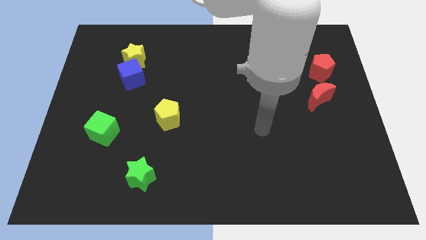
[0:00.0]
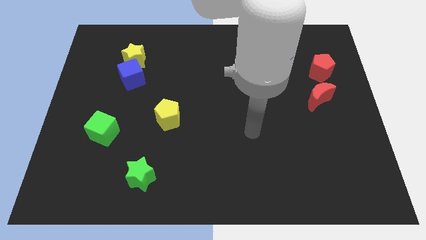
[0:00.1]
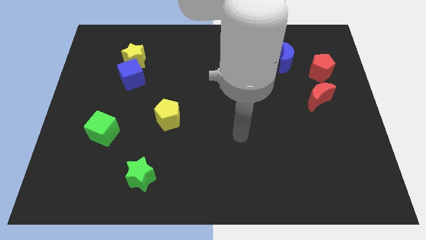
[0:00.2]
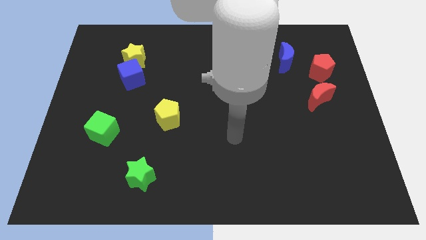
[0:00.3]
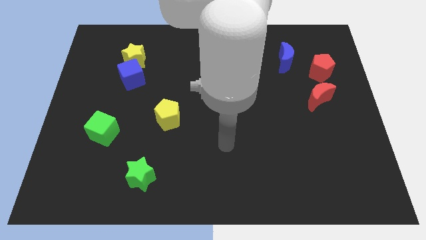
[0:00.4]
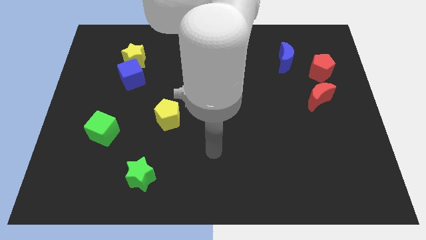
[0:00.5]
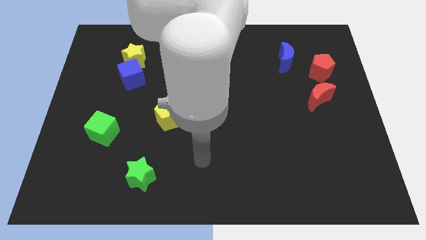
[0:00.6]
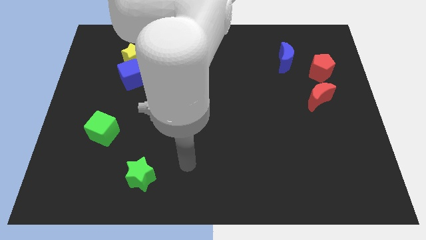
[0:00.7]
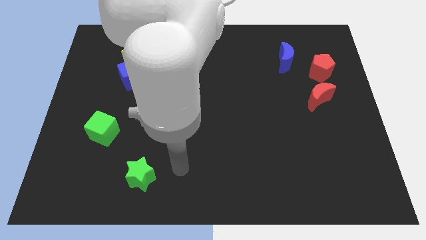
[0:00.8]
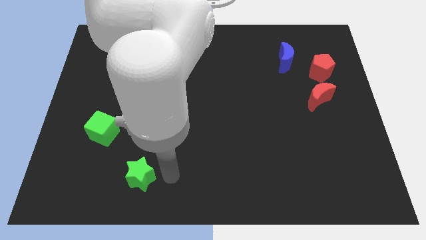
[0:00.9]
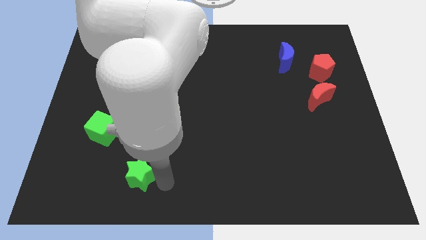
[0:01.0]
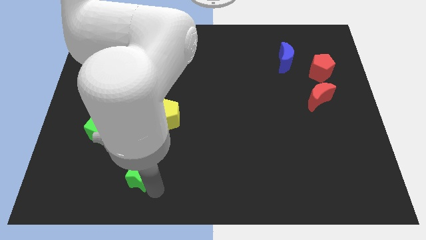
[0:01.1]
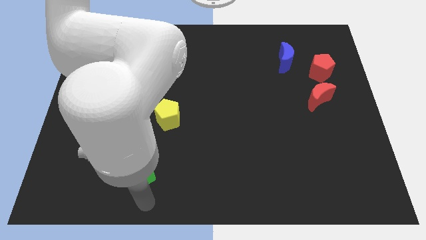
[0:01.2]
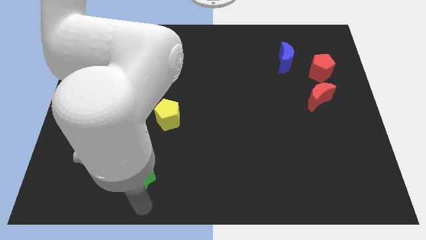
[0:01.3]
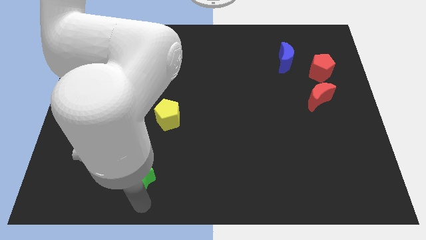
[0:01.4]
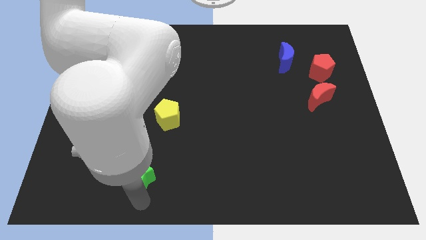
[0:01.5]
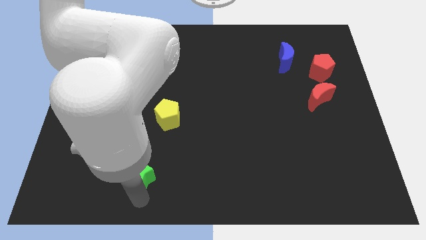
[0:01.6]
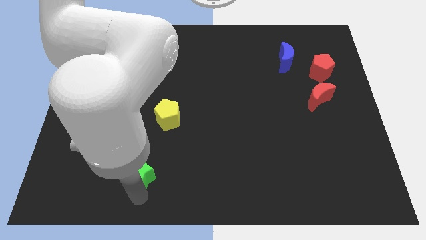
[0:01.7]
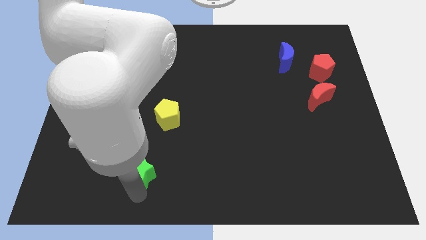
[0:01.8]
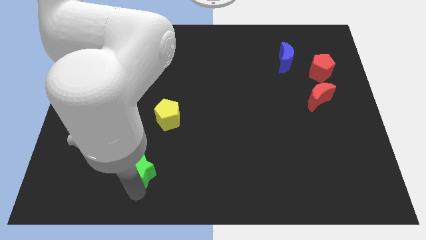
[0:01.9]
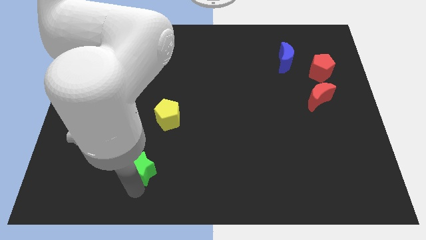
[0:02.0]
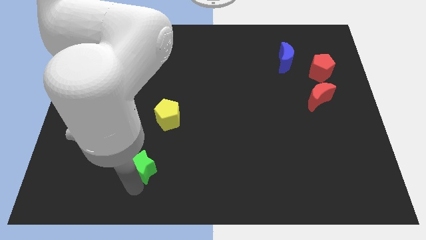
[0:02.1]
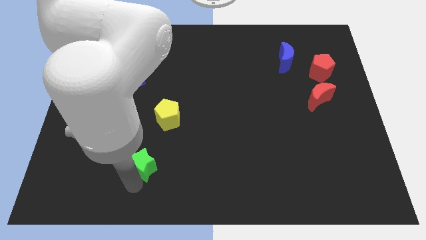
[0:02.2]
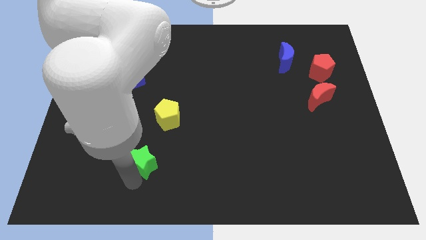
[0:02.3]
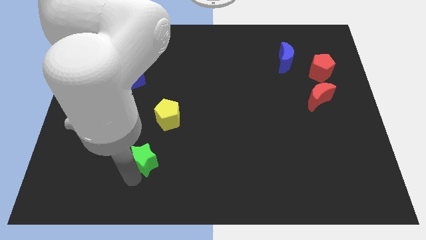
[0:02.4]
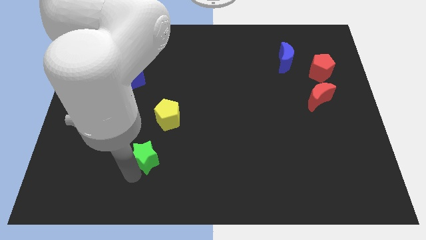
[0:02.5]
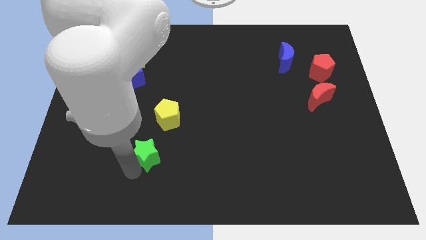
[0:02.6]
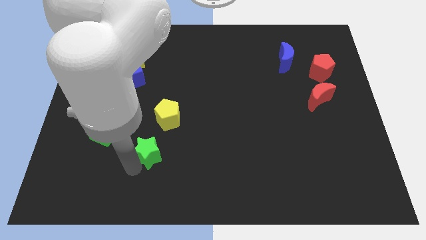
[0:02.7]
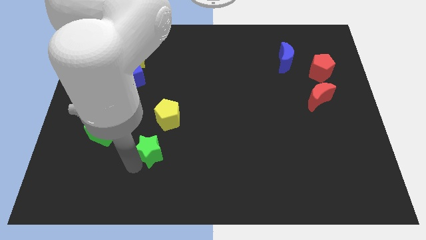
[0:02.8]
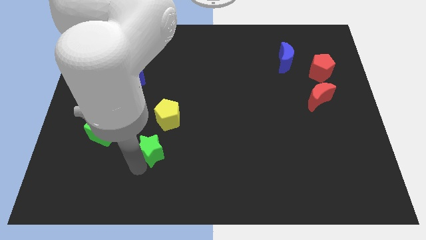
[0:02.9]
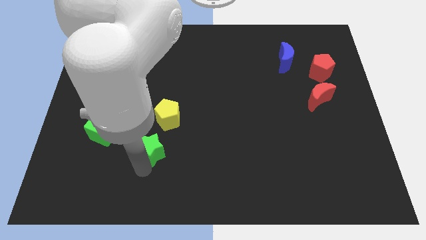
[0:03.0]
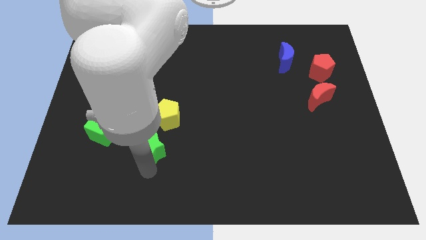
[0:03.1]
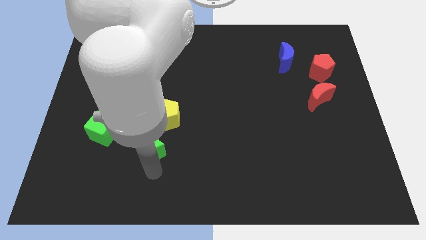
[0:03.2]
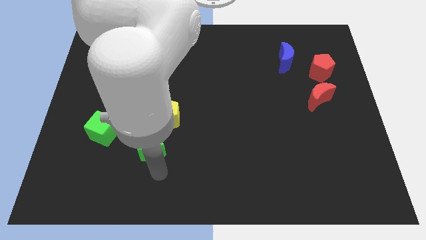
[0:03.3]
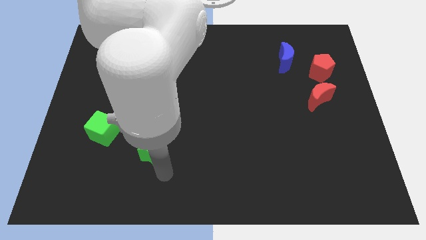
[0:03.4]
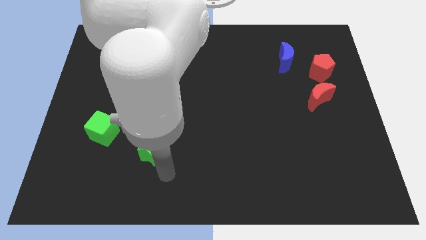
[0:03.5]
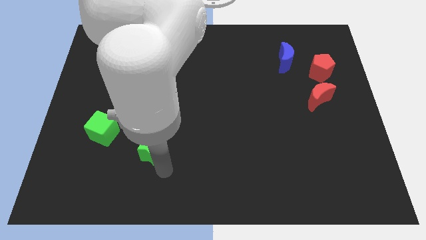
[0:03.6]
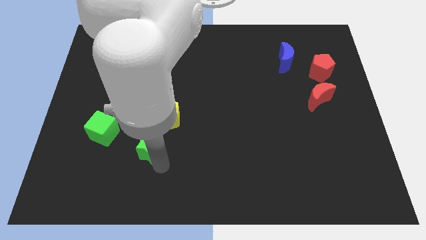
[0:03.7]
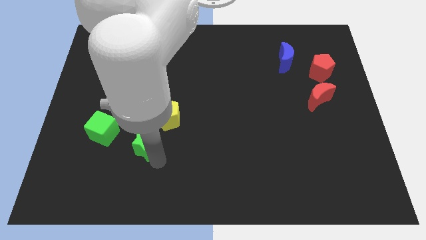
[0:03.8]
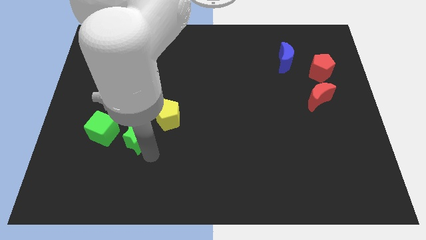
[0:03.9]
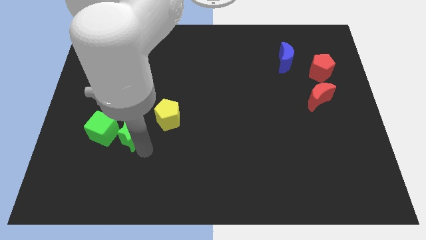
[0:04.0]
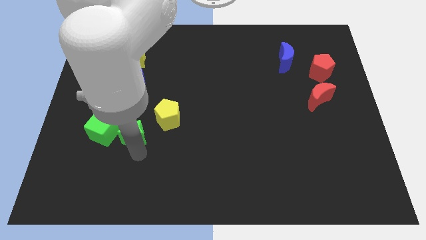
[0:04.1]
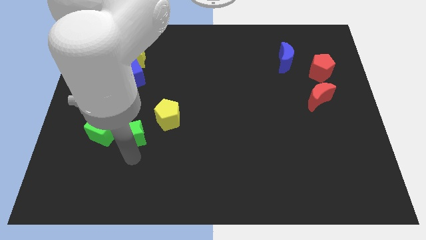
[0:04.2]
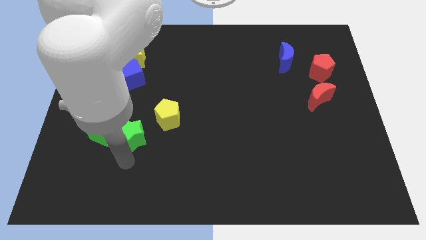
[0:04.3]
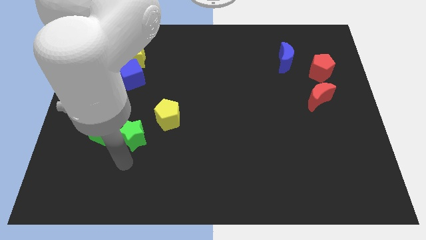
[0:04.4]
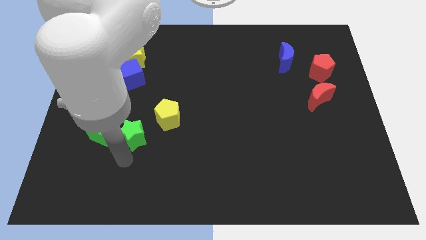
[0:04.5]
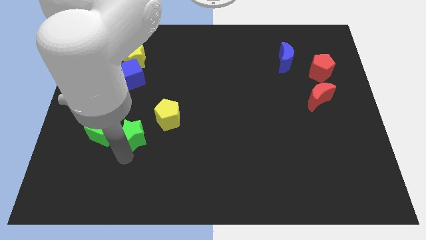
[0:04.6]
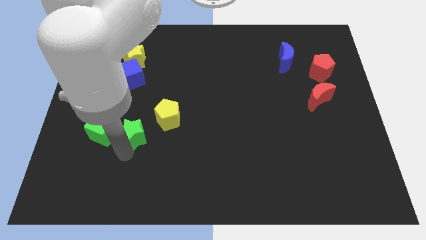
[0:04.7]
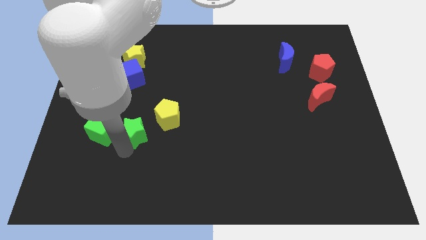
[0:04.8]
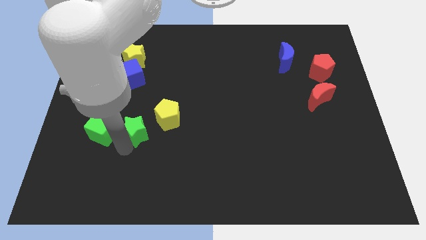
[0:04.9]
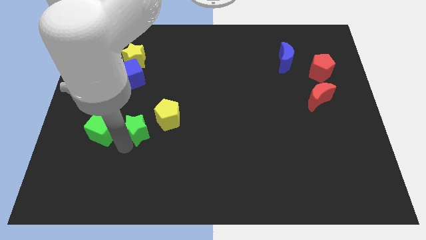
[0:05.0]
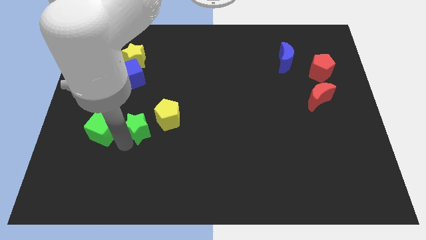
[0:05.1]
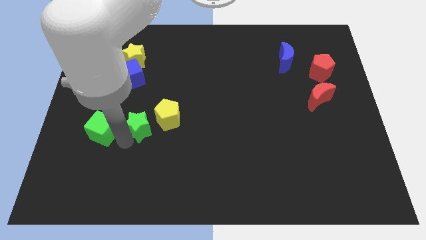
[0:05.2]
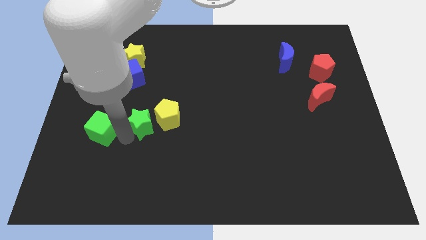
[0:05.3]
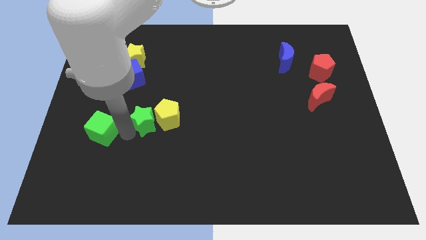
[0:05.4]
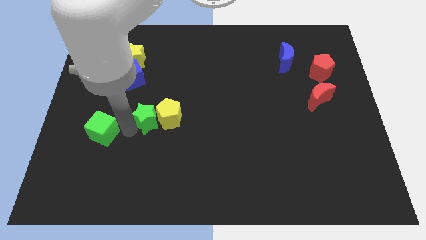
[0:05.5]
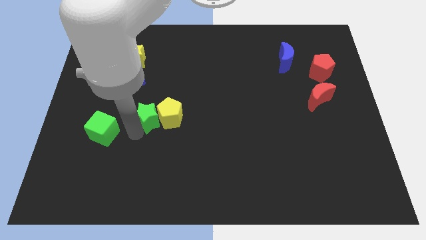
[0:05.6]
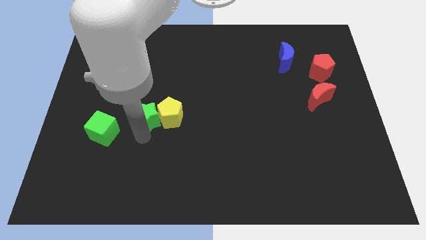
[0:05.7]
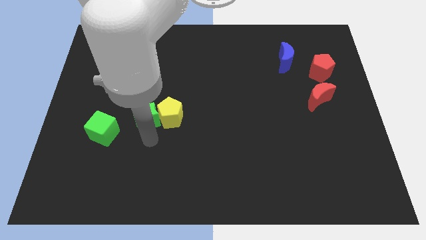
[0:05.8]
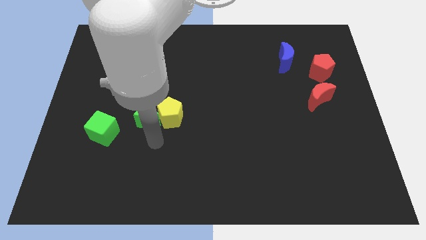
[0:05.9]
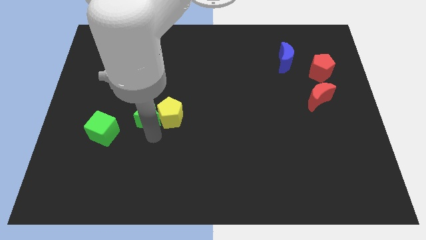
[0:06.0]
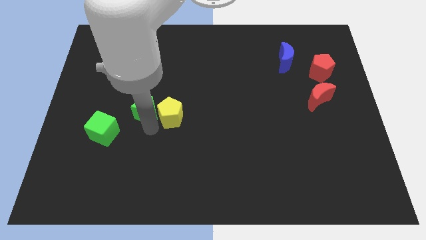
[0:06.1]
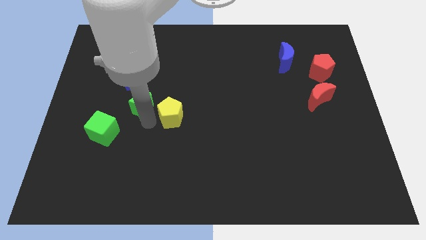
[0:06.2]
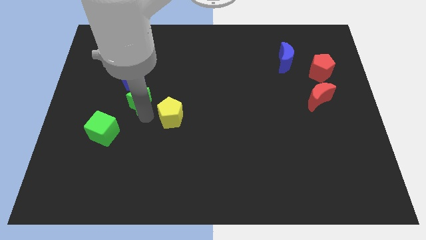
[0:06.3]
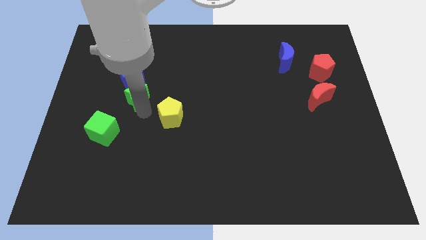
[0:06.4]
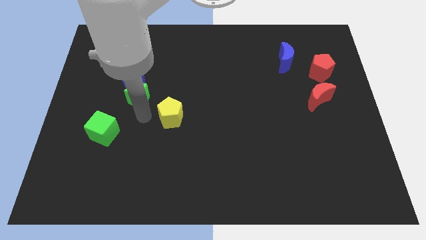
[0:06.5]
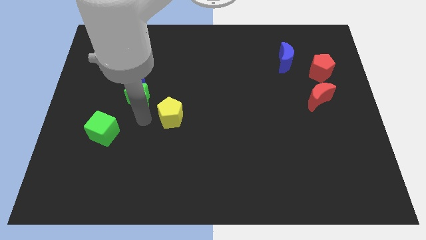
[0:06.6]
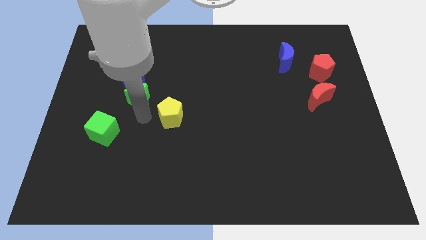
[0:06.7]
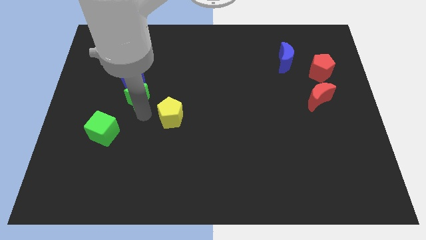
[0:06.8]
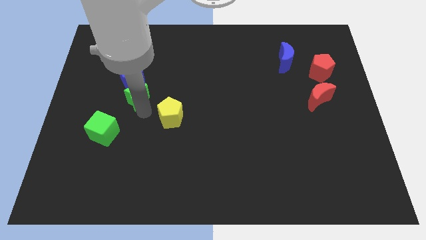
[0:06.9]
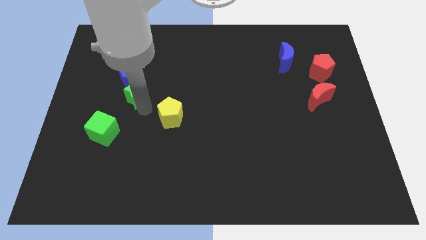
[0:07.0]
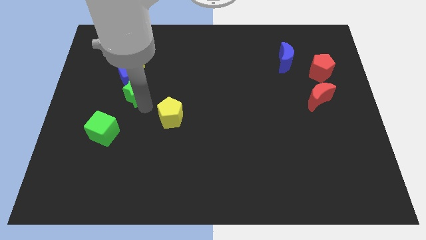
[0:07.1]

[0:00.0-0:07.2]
put the green star close to the blue cube

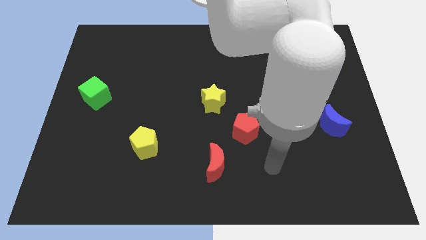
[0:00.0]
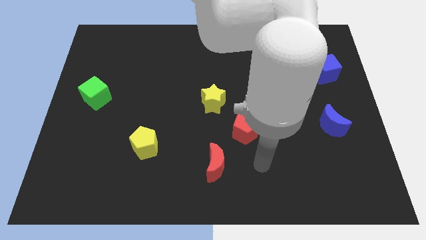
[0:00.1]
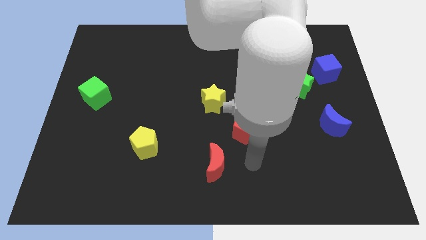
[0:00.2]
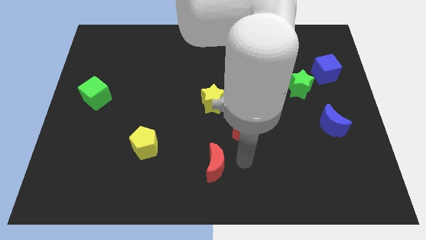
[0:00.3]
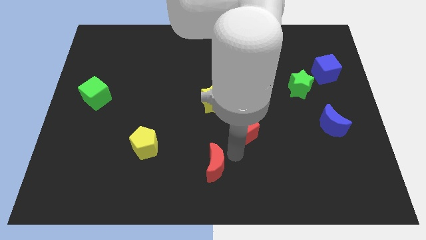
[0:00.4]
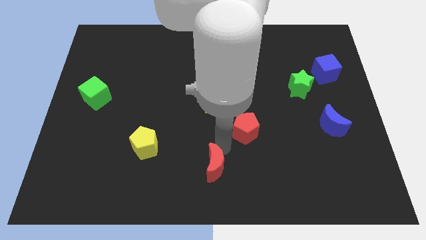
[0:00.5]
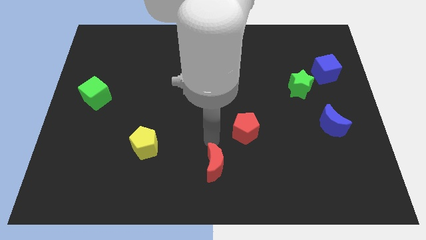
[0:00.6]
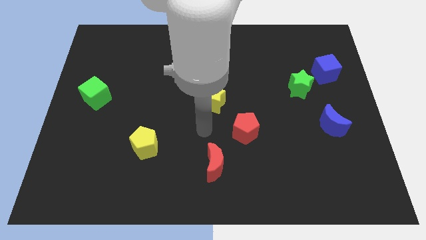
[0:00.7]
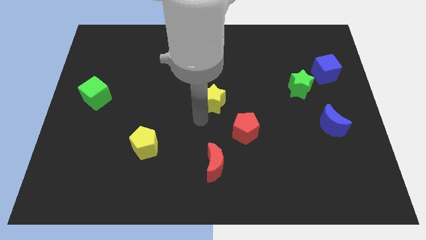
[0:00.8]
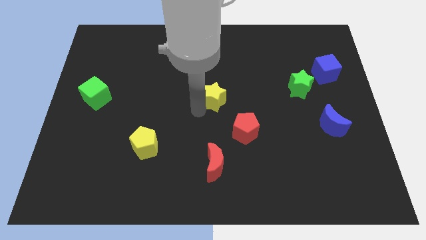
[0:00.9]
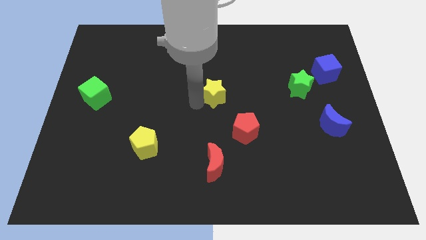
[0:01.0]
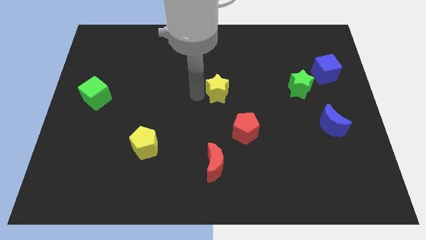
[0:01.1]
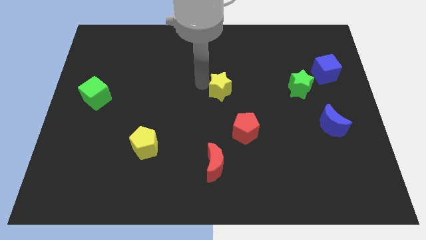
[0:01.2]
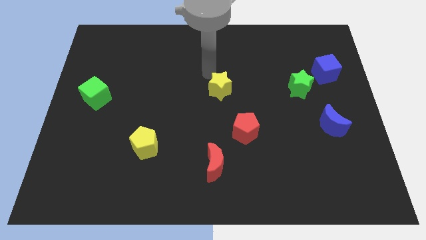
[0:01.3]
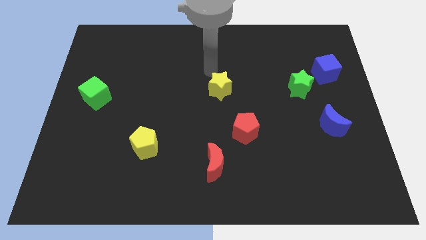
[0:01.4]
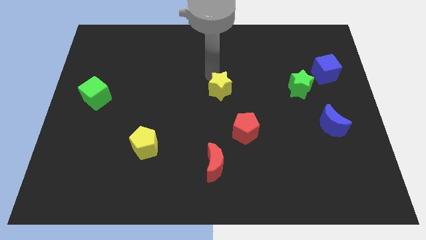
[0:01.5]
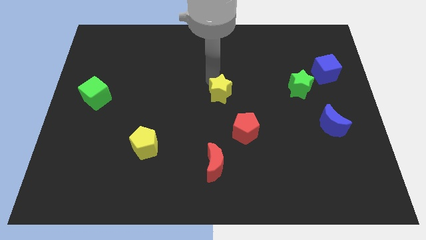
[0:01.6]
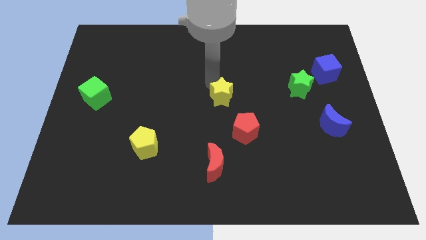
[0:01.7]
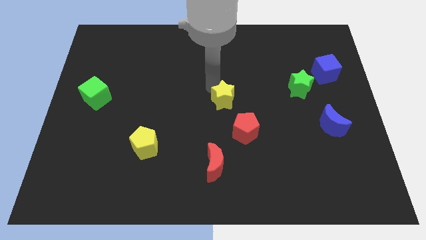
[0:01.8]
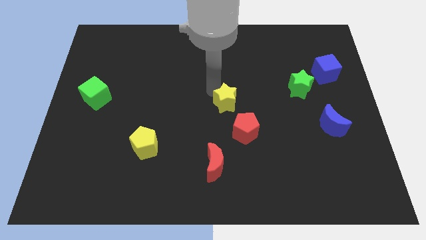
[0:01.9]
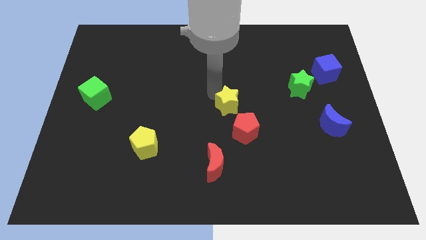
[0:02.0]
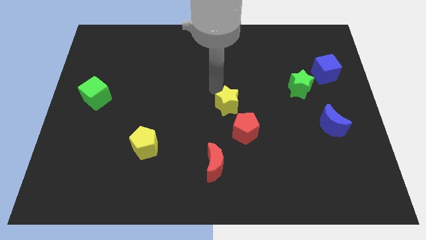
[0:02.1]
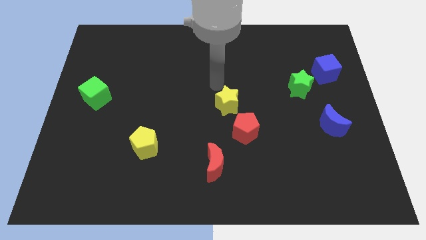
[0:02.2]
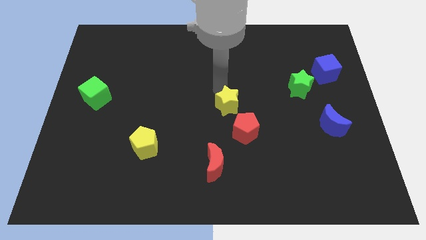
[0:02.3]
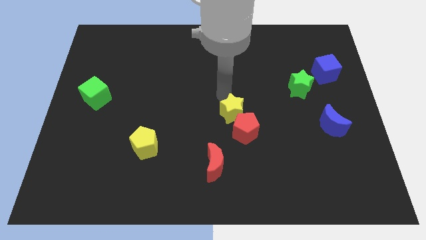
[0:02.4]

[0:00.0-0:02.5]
push the yellow star to the red pentagon
